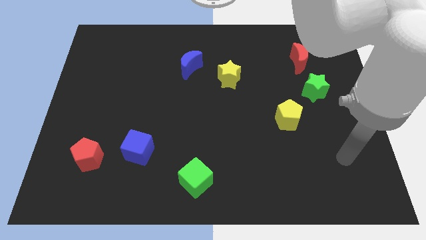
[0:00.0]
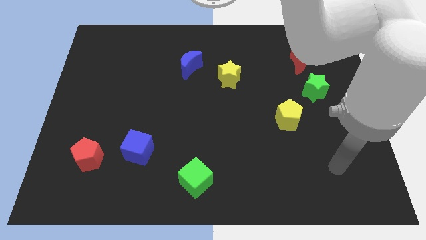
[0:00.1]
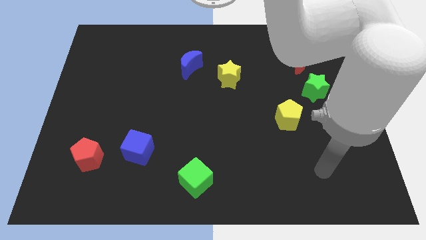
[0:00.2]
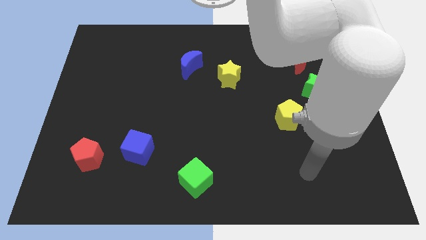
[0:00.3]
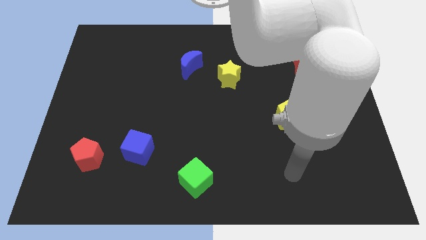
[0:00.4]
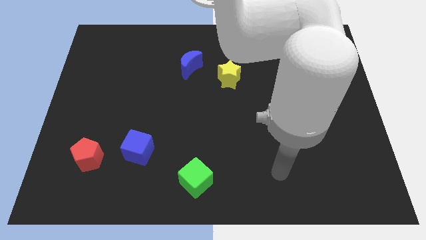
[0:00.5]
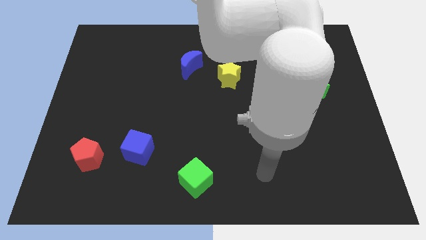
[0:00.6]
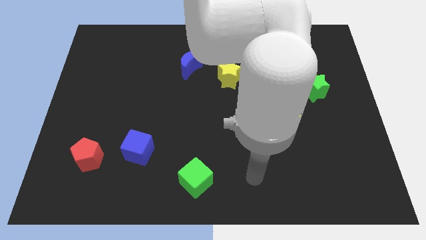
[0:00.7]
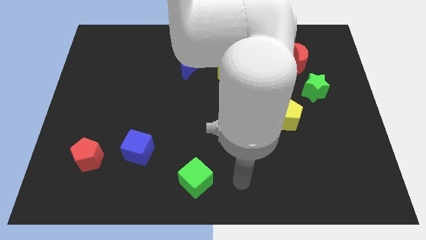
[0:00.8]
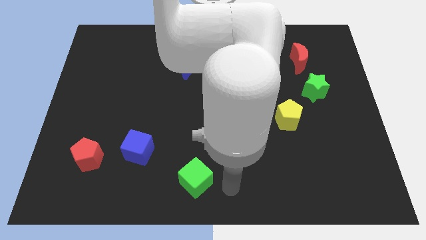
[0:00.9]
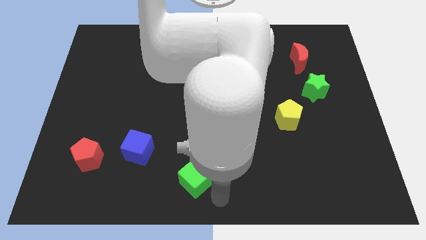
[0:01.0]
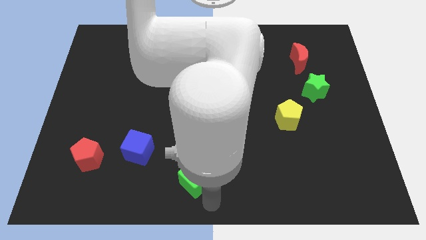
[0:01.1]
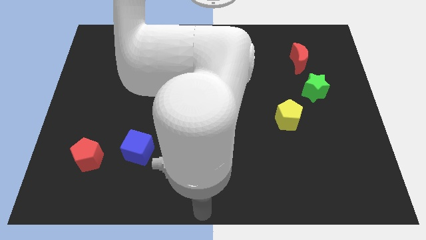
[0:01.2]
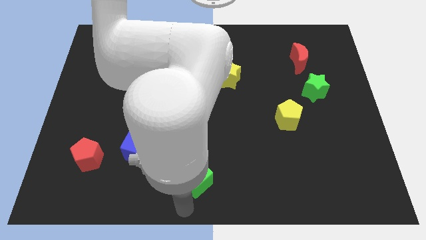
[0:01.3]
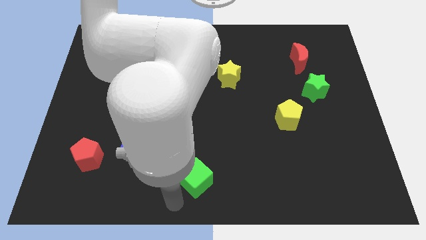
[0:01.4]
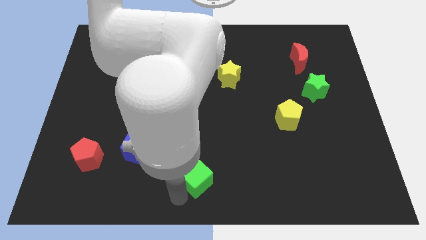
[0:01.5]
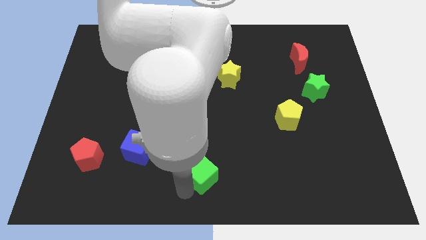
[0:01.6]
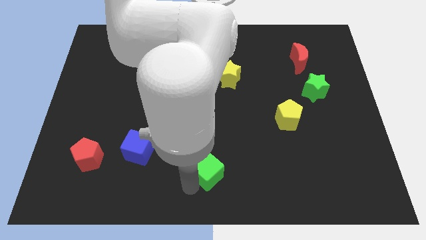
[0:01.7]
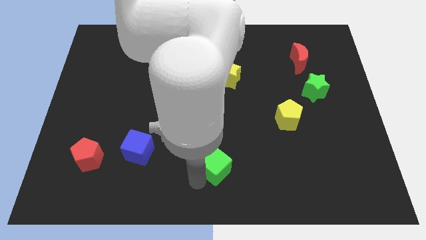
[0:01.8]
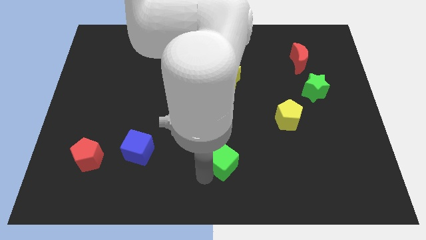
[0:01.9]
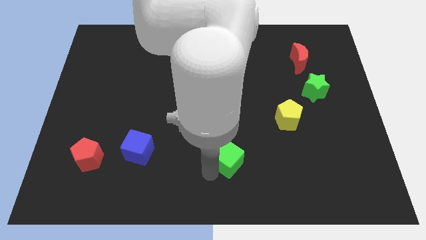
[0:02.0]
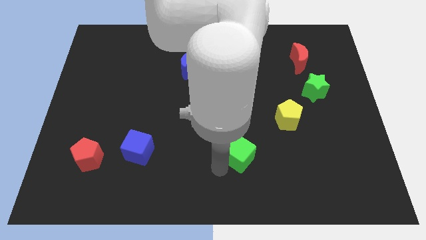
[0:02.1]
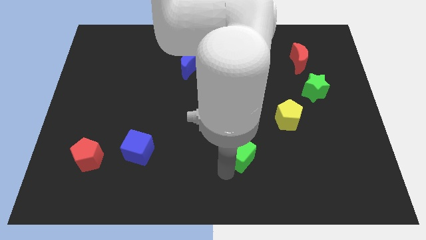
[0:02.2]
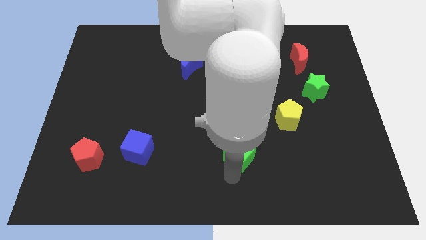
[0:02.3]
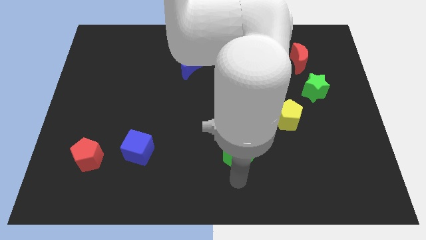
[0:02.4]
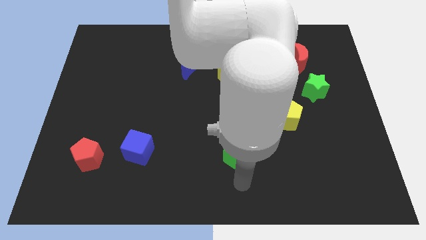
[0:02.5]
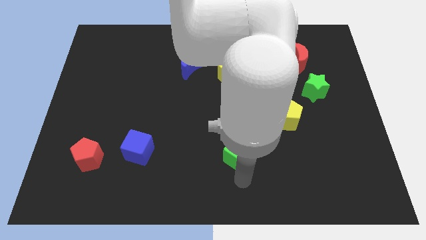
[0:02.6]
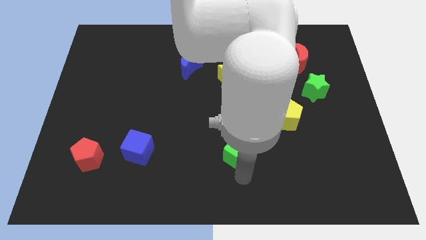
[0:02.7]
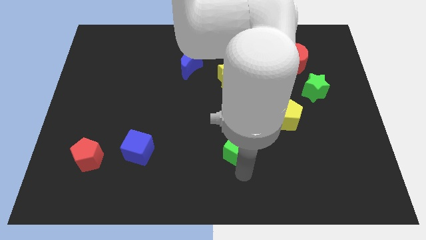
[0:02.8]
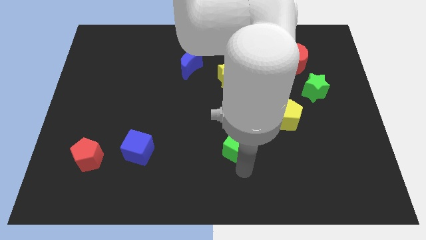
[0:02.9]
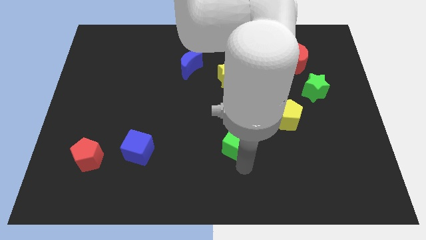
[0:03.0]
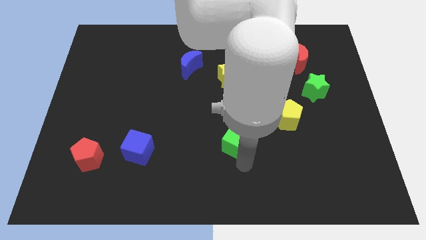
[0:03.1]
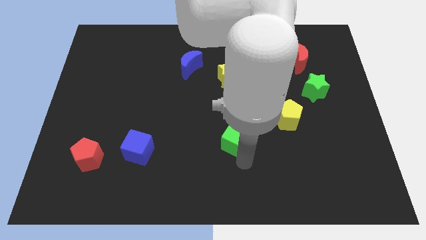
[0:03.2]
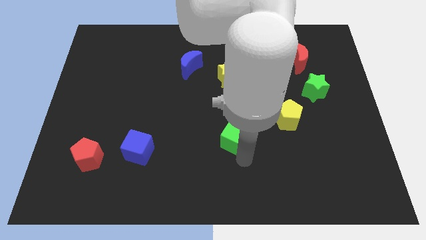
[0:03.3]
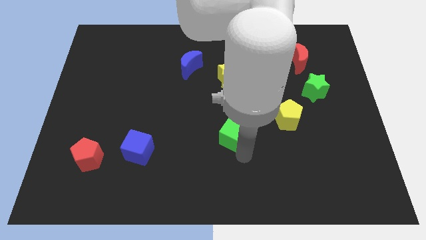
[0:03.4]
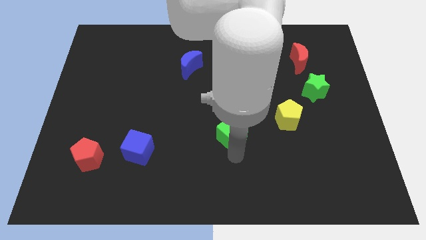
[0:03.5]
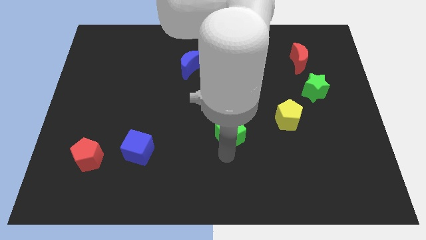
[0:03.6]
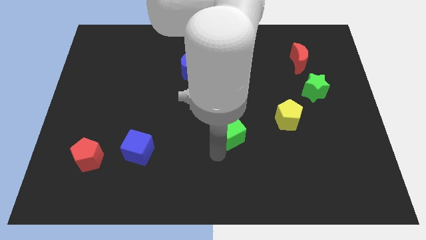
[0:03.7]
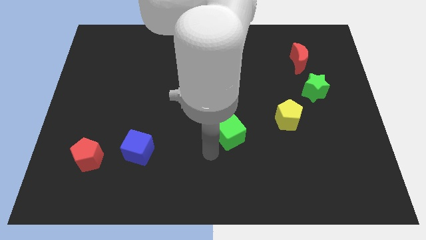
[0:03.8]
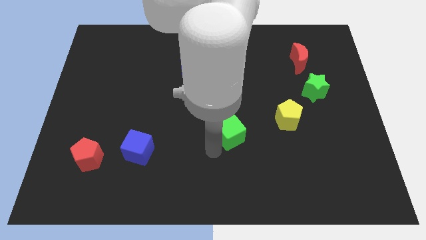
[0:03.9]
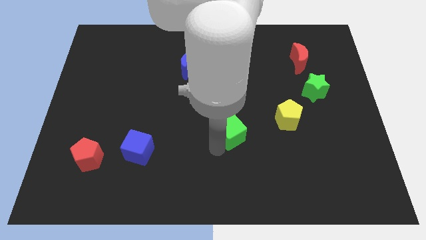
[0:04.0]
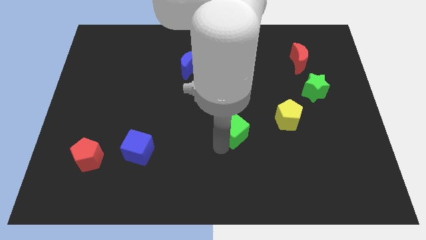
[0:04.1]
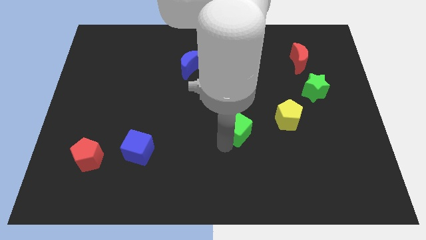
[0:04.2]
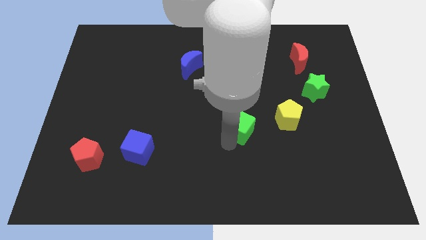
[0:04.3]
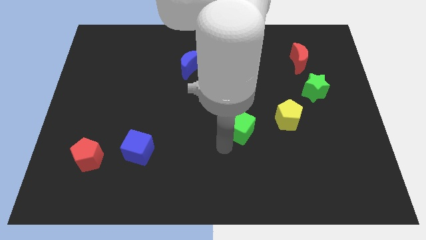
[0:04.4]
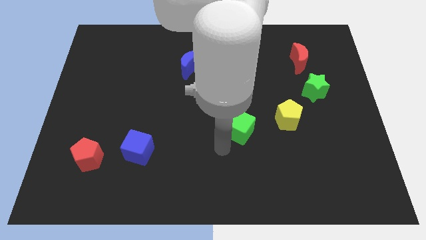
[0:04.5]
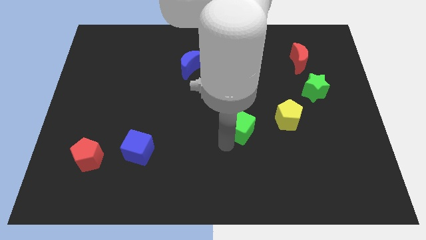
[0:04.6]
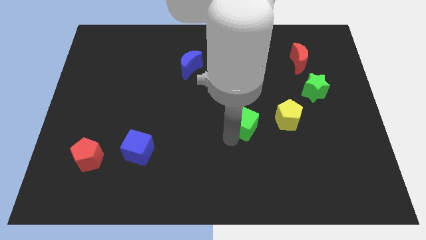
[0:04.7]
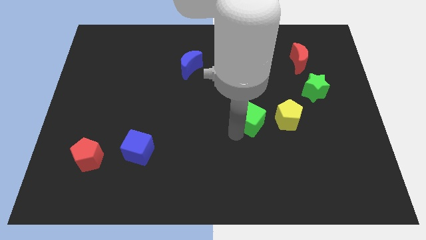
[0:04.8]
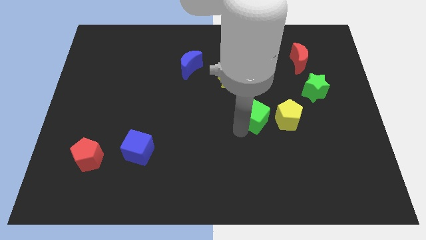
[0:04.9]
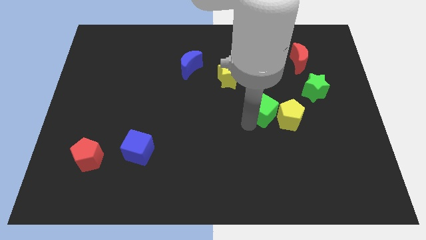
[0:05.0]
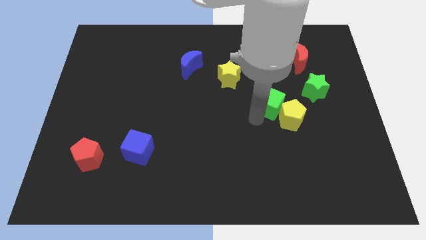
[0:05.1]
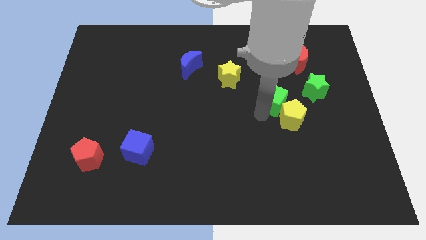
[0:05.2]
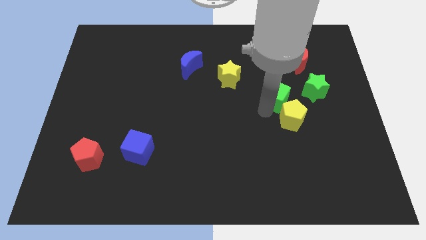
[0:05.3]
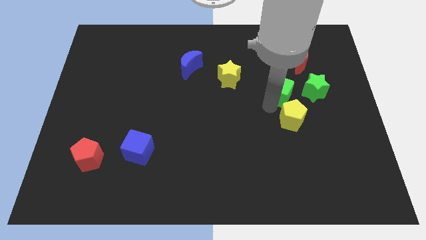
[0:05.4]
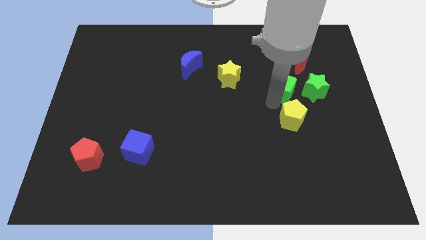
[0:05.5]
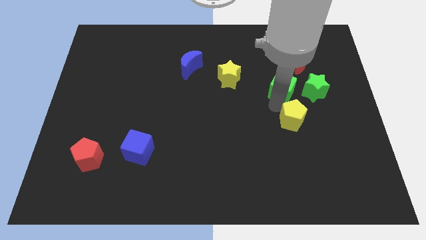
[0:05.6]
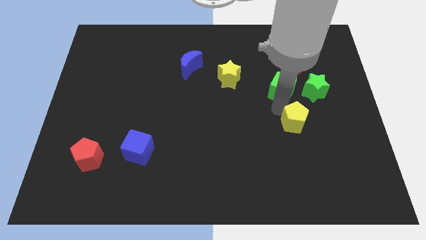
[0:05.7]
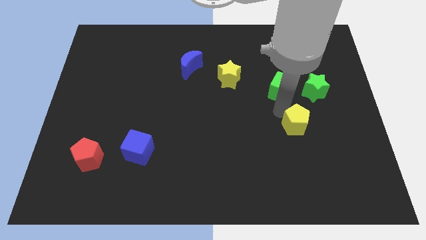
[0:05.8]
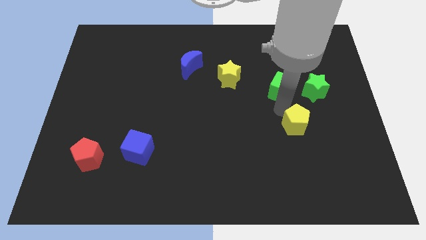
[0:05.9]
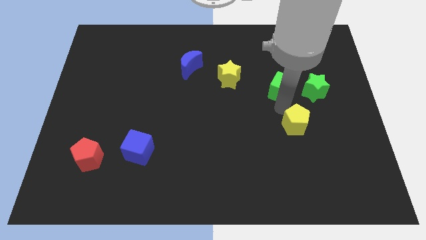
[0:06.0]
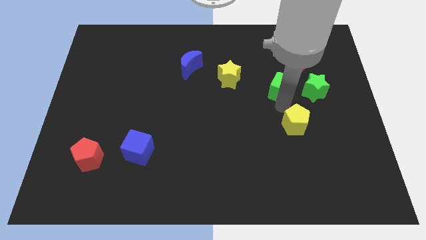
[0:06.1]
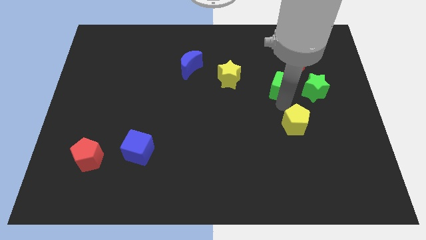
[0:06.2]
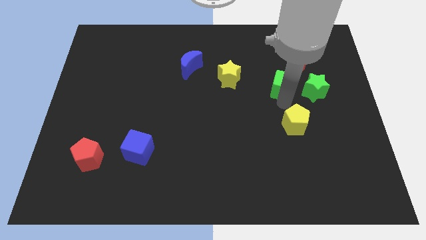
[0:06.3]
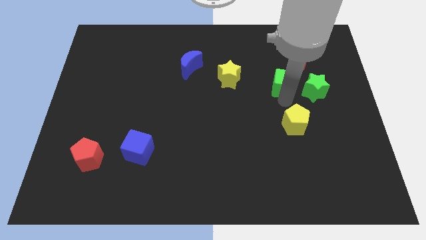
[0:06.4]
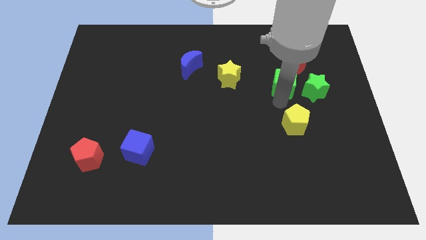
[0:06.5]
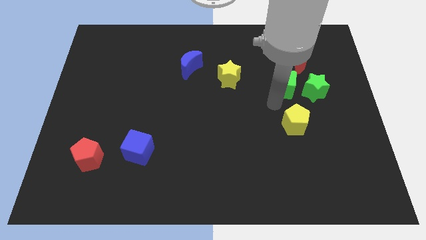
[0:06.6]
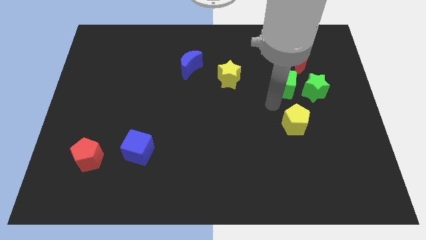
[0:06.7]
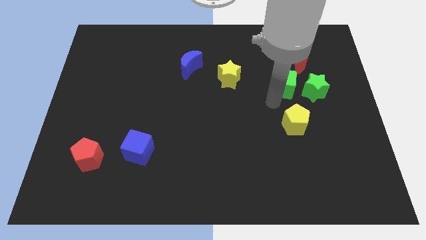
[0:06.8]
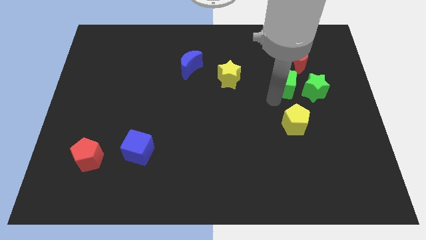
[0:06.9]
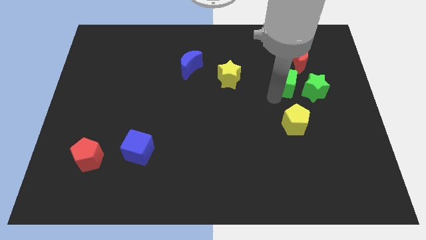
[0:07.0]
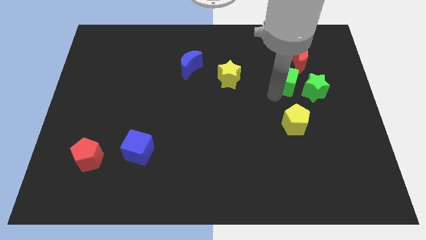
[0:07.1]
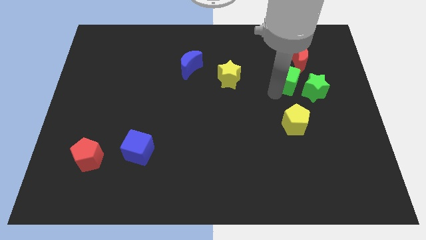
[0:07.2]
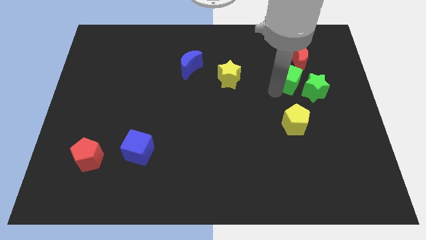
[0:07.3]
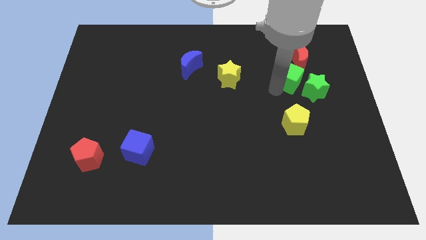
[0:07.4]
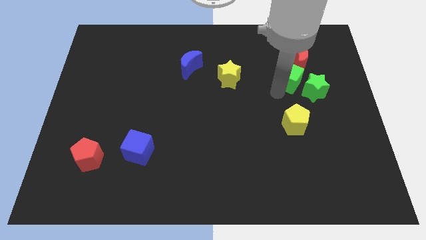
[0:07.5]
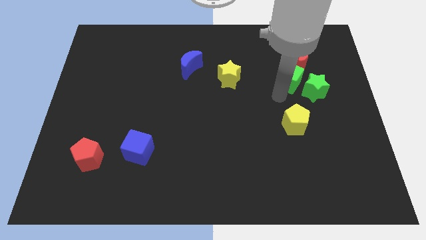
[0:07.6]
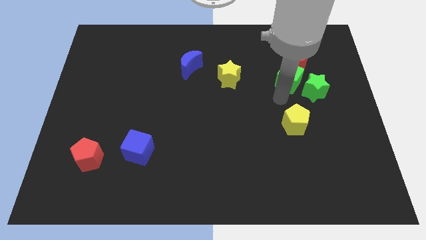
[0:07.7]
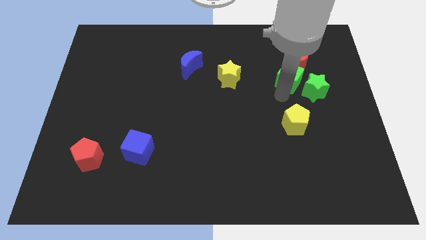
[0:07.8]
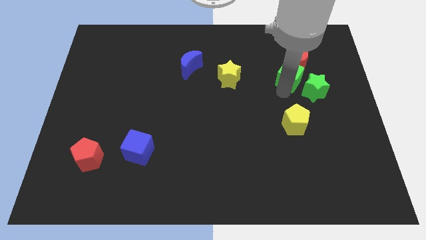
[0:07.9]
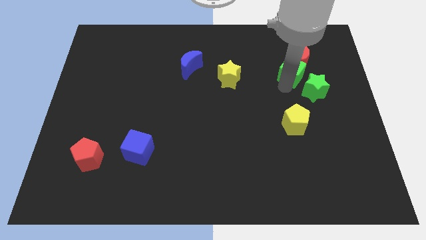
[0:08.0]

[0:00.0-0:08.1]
push the green cube to the red moon
